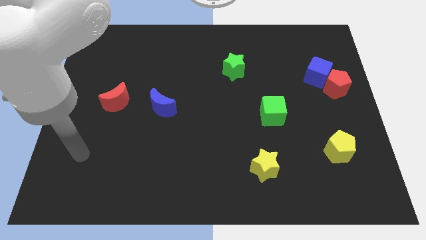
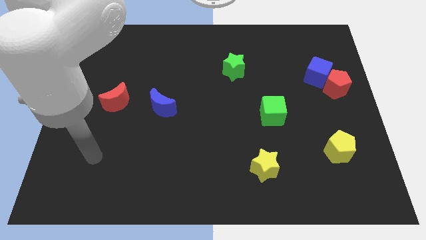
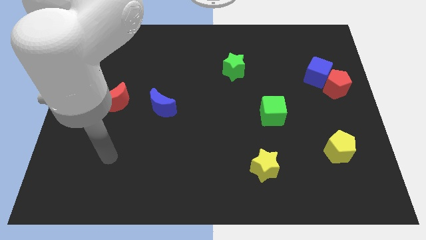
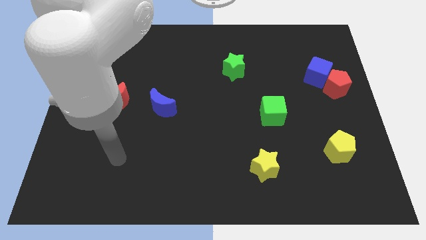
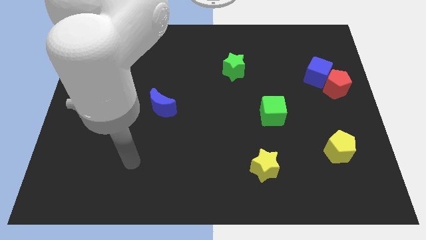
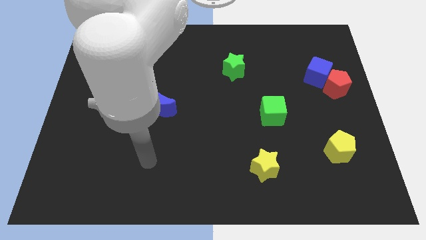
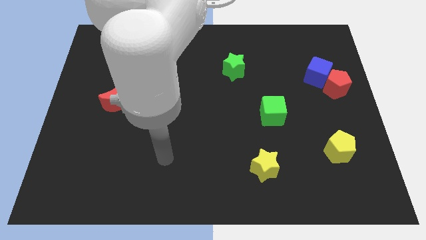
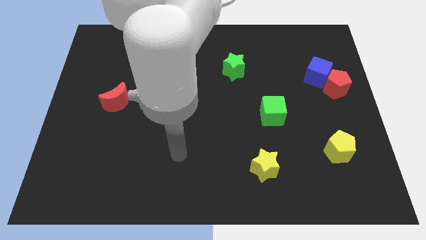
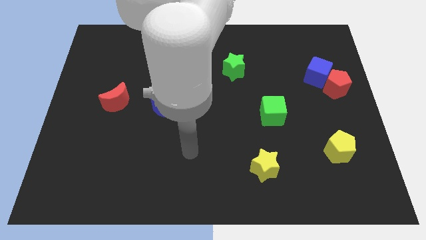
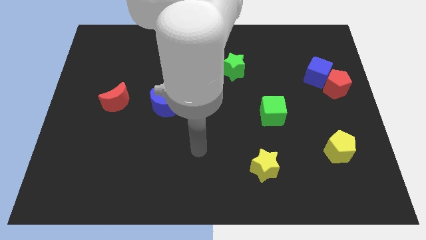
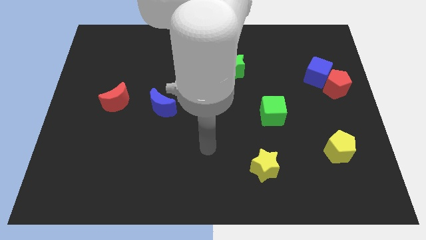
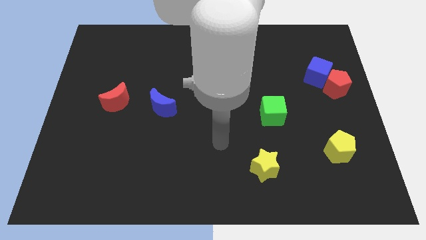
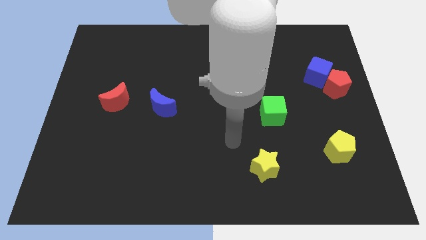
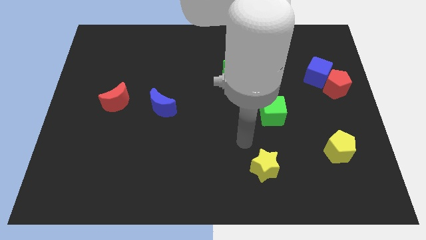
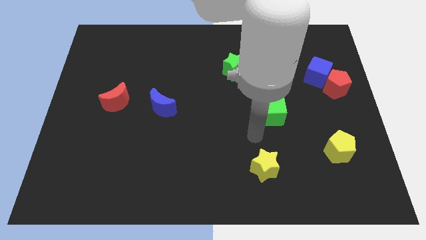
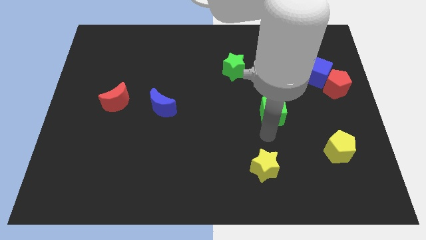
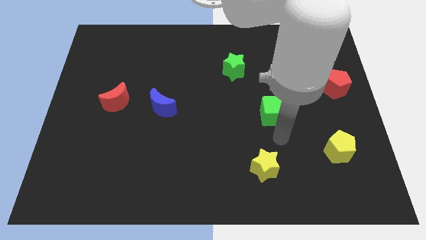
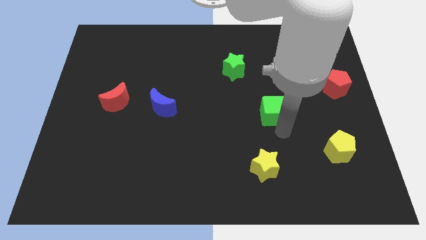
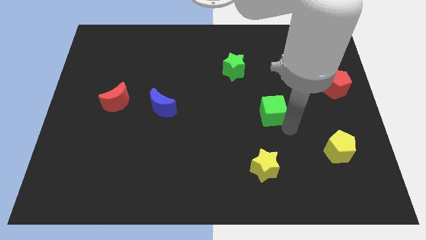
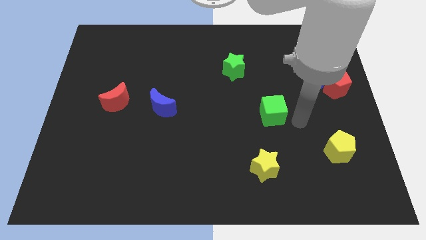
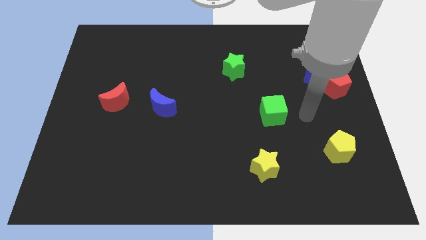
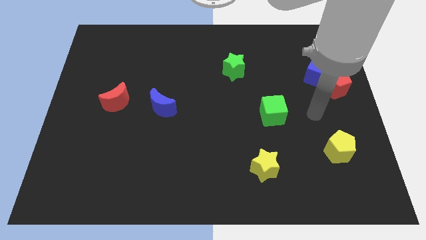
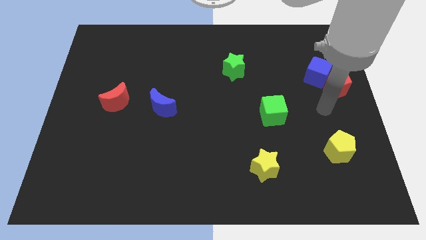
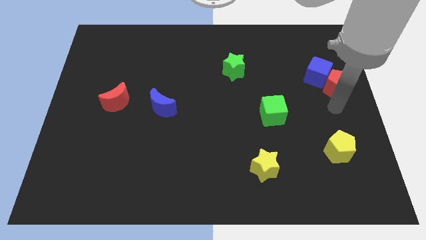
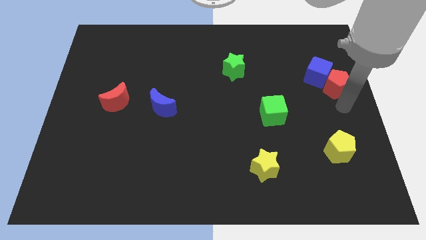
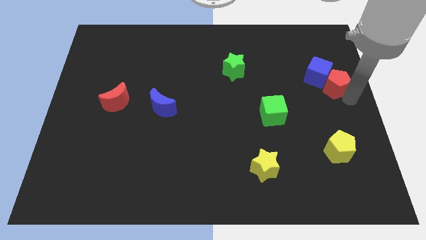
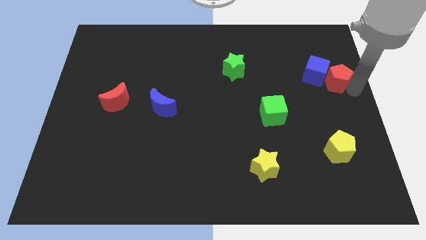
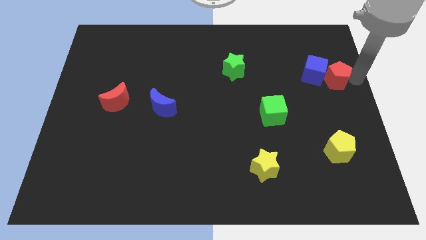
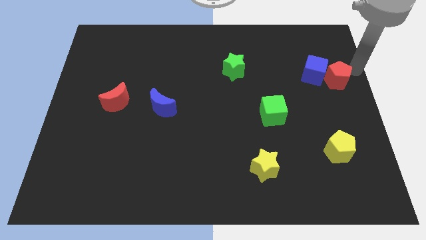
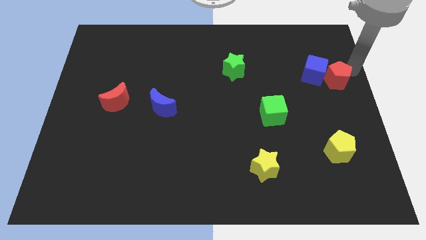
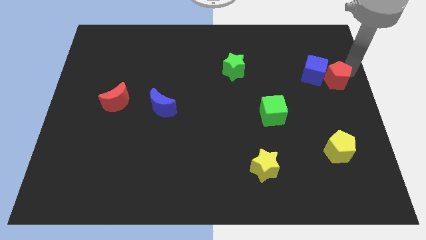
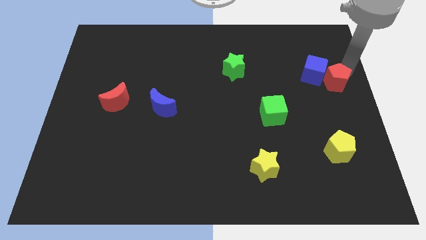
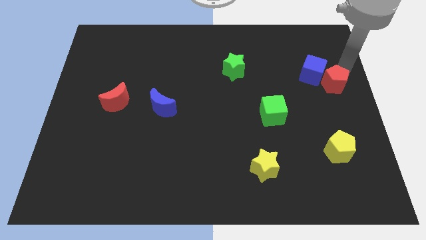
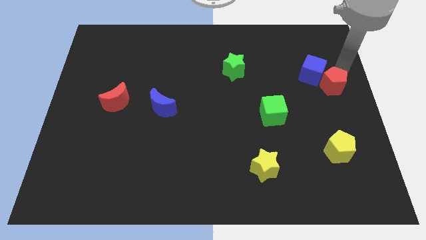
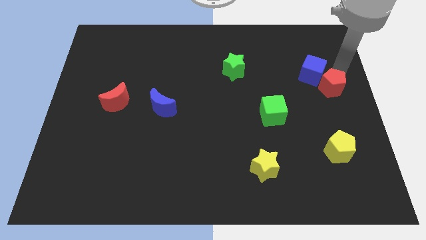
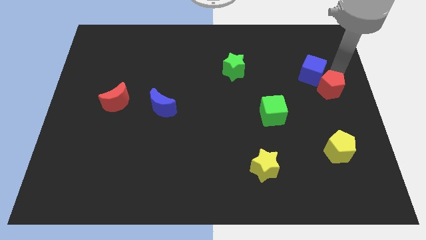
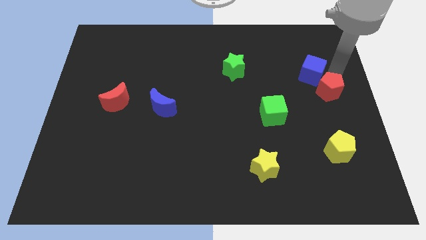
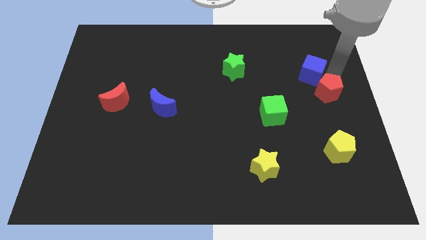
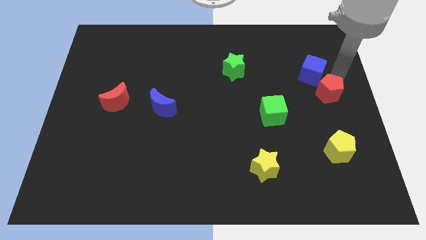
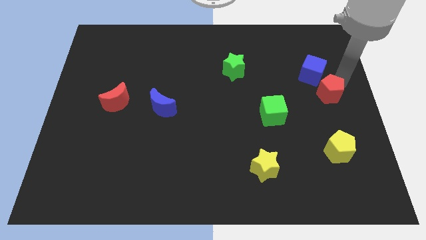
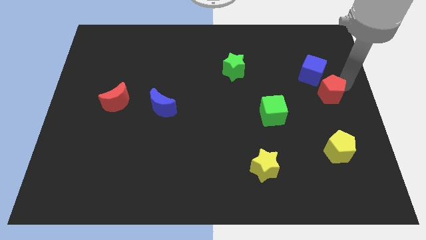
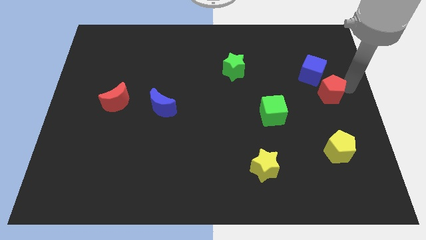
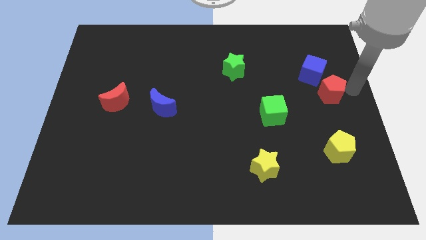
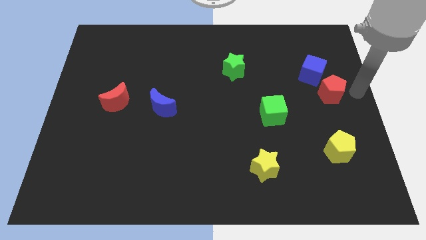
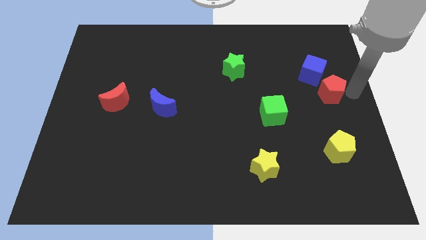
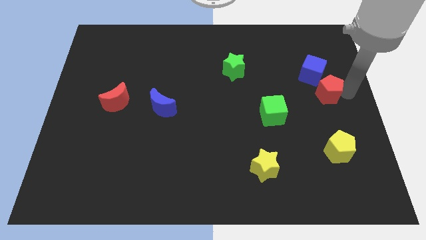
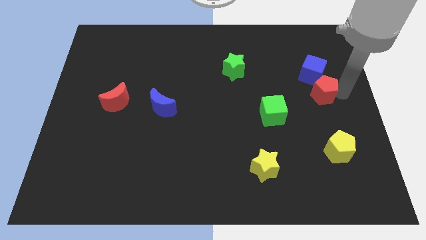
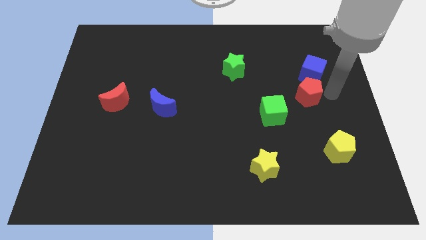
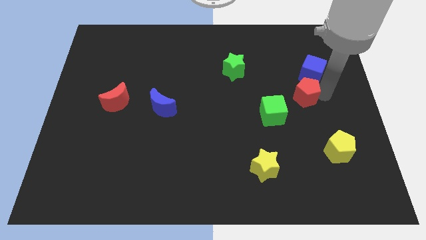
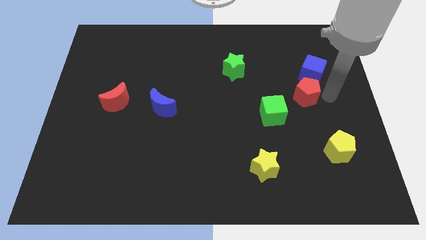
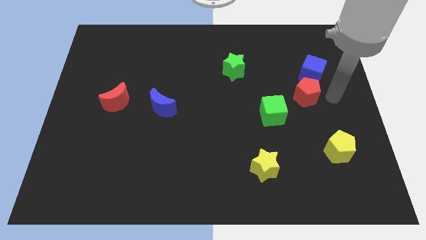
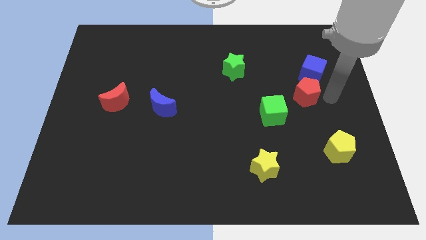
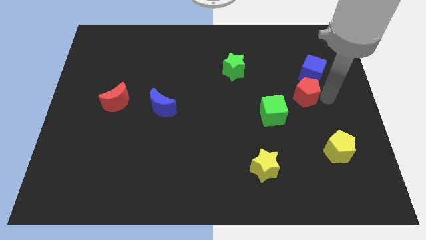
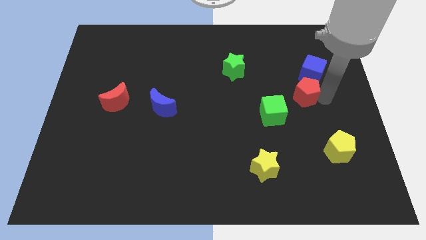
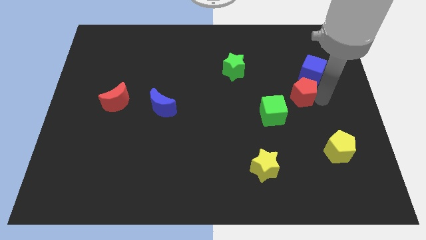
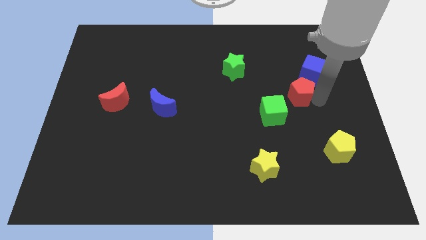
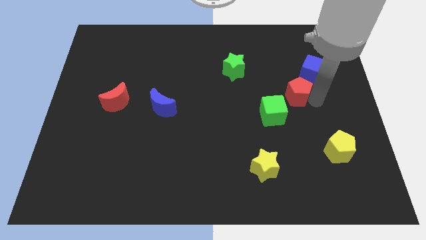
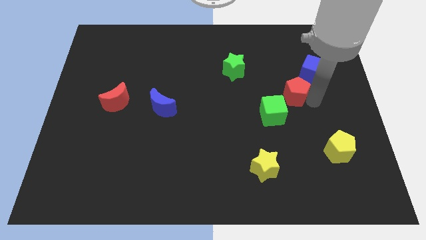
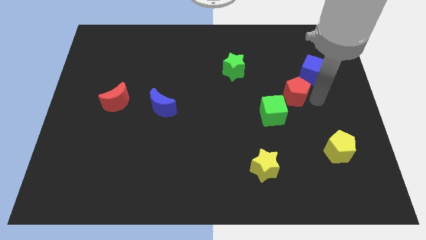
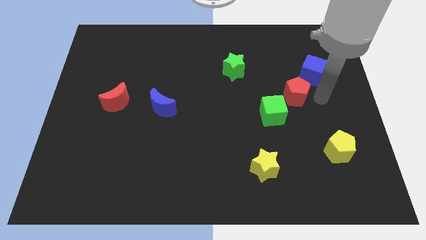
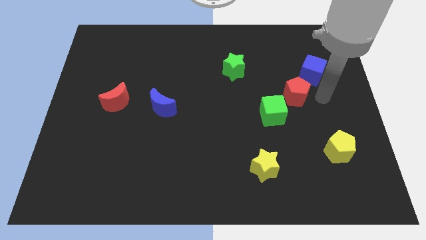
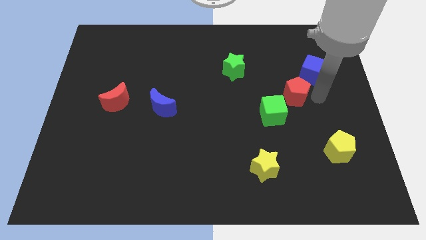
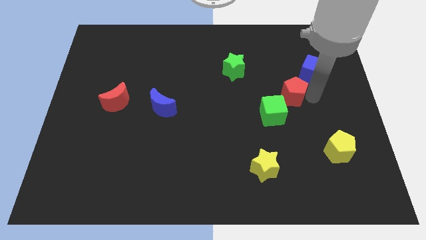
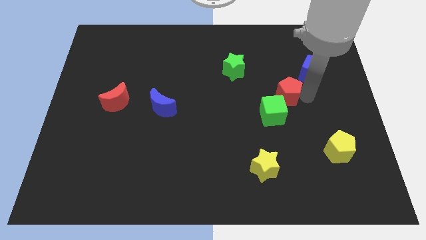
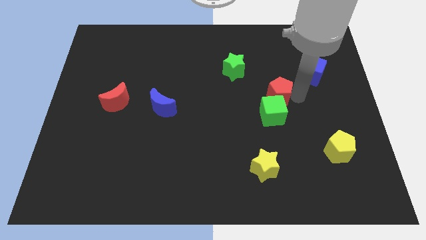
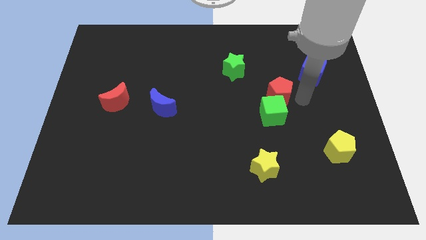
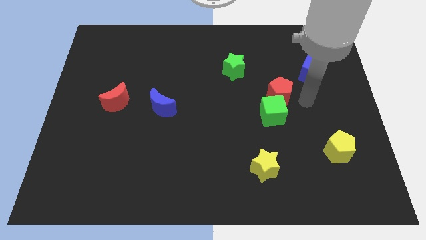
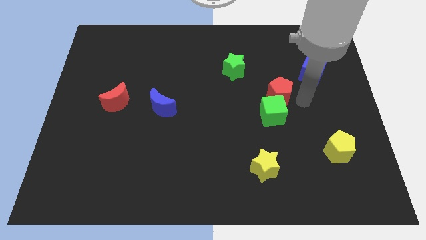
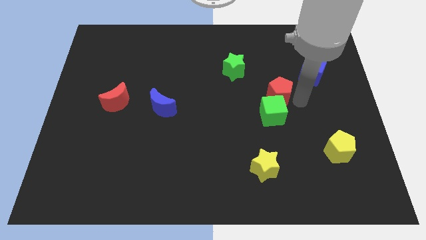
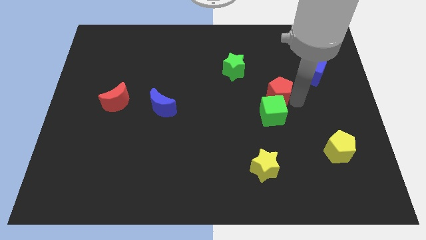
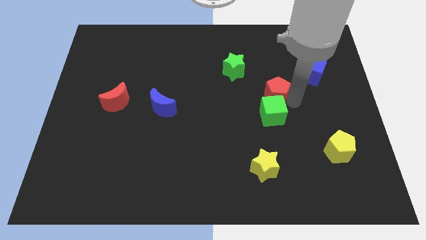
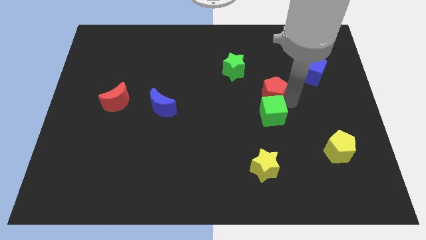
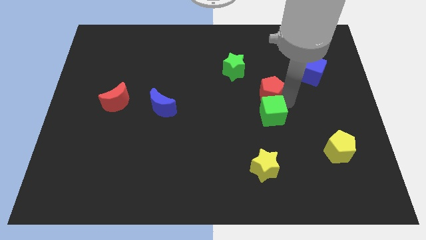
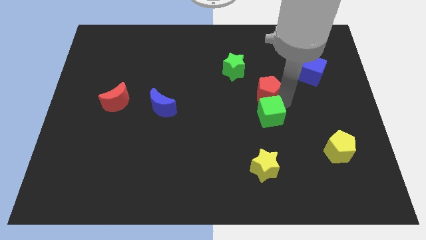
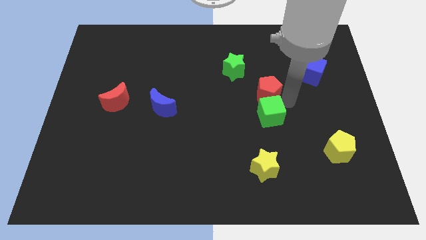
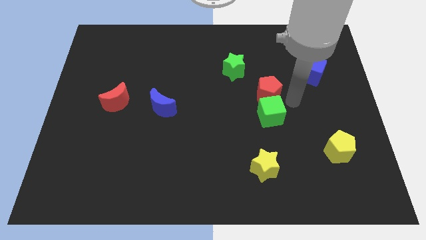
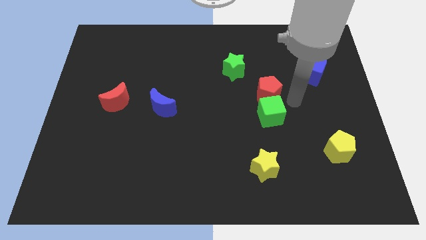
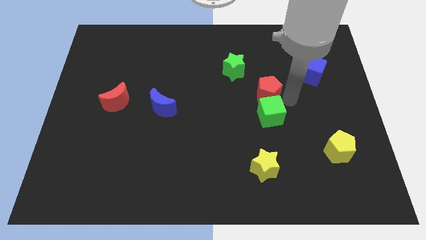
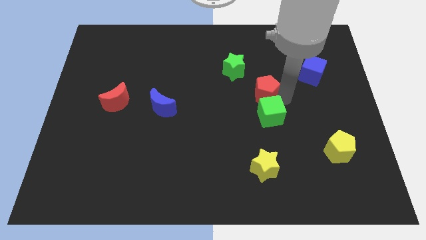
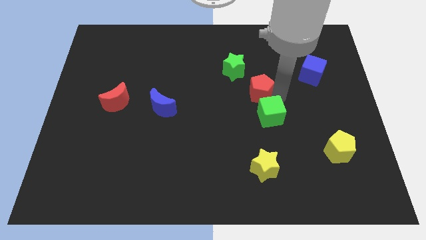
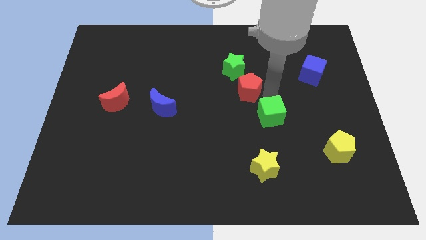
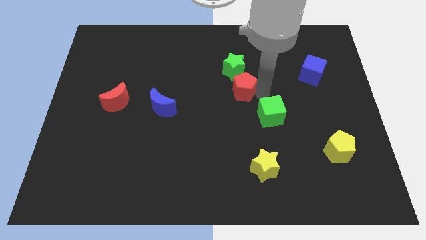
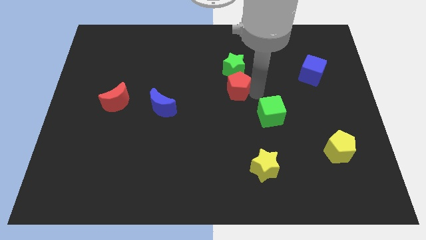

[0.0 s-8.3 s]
push the red pentagon to the bottom left of the green star

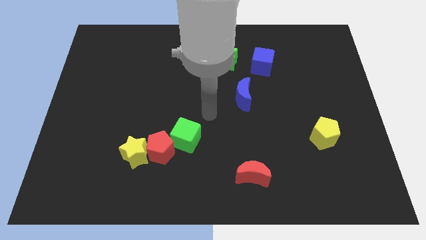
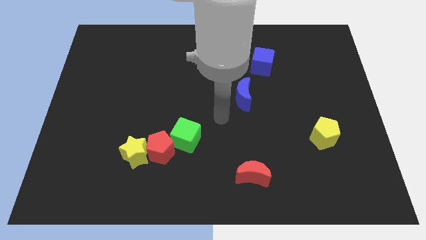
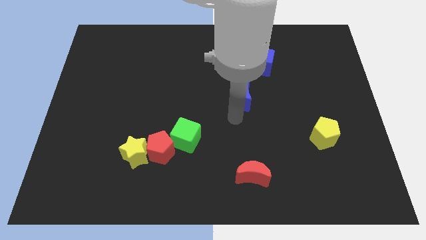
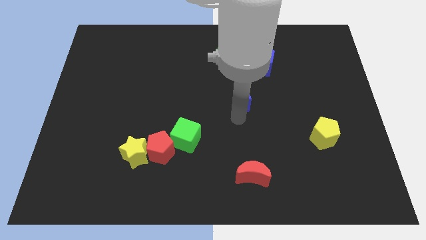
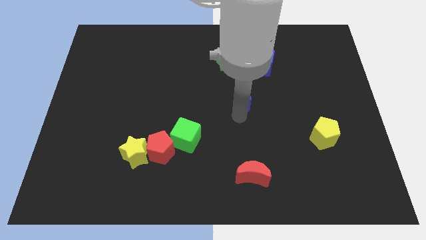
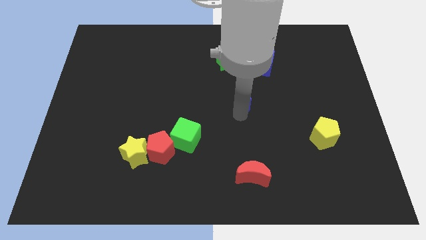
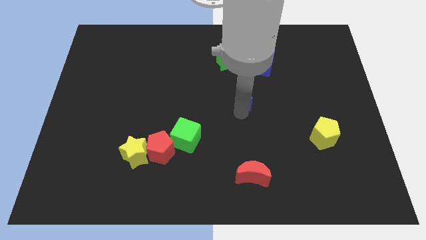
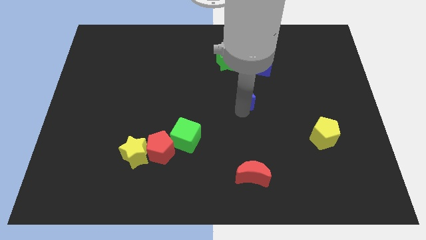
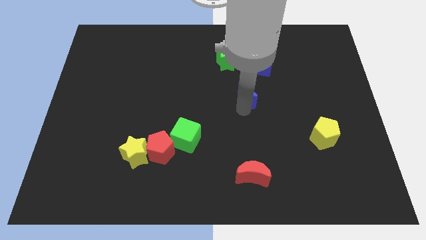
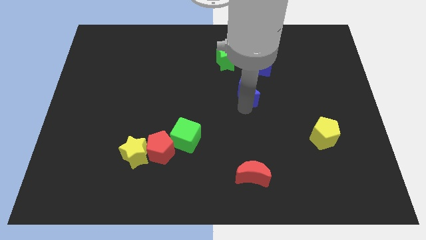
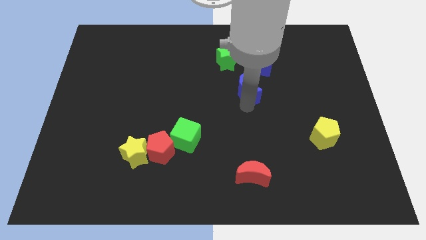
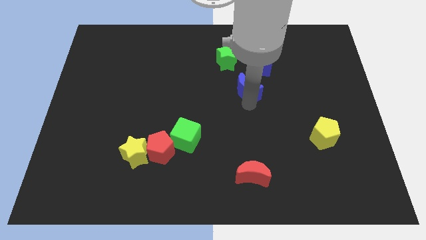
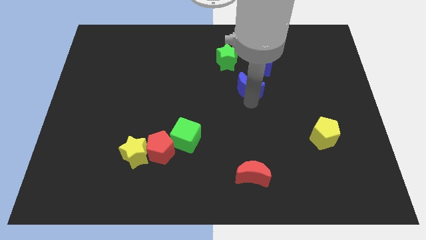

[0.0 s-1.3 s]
put the blue moon to the bottom right side of the green star
